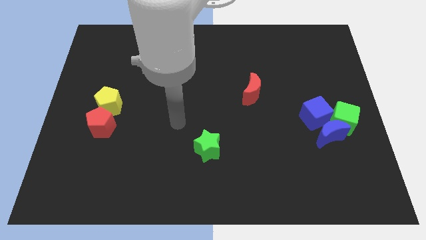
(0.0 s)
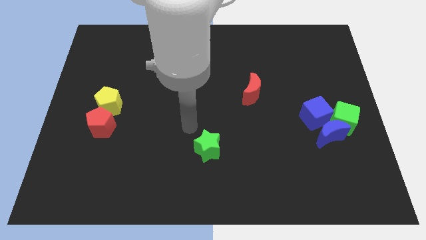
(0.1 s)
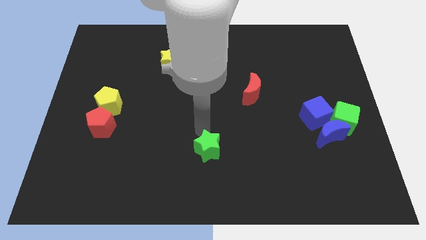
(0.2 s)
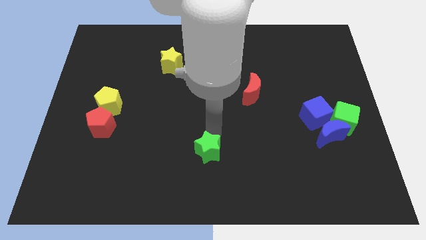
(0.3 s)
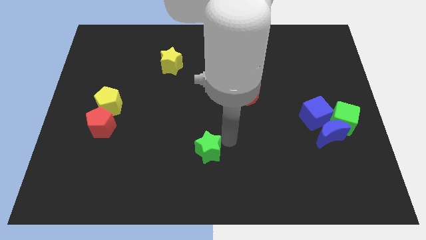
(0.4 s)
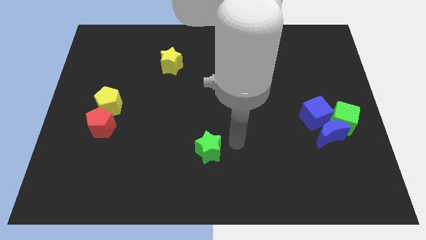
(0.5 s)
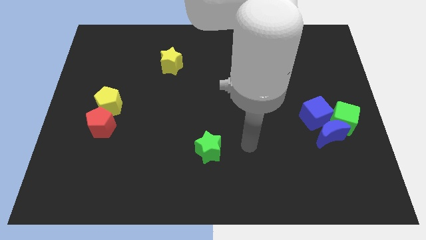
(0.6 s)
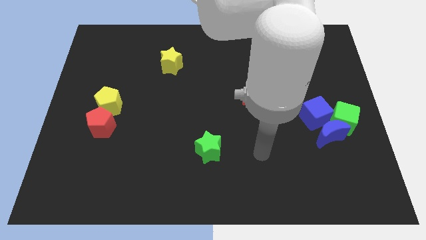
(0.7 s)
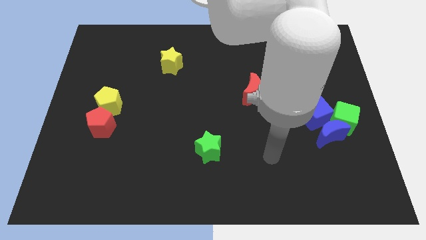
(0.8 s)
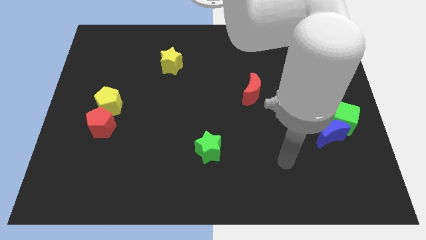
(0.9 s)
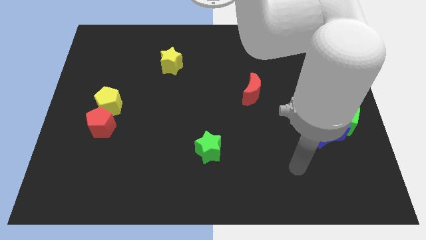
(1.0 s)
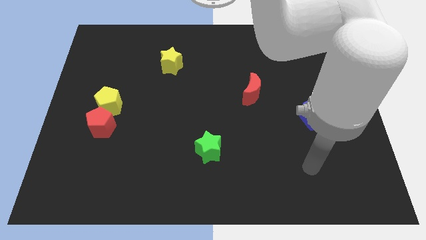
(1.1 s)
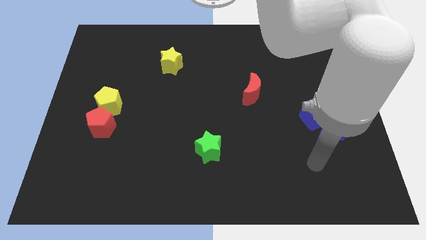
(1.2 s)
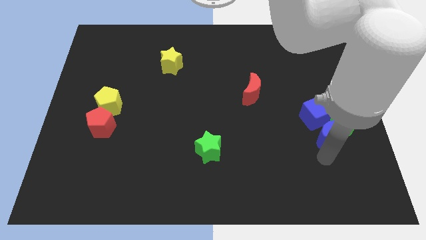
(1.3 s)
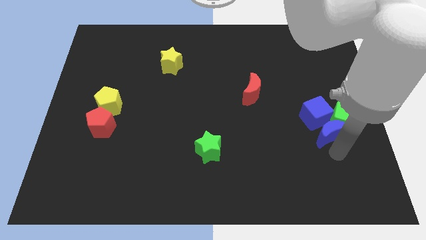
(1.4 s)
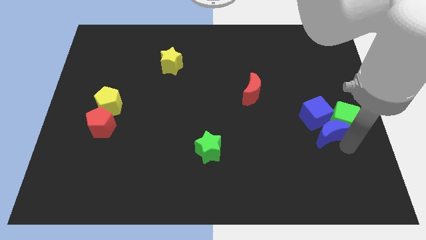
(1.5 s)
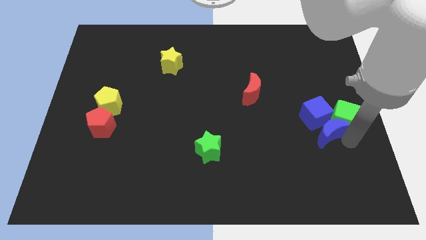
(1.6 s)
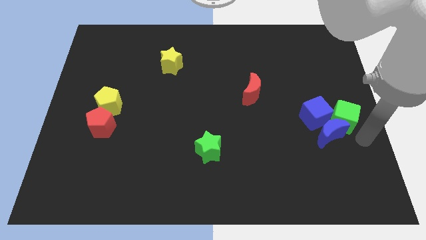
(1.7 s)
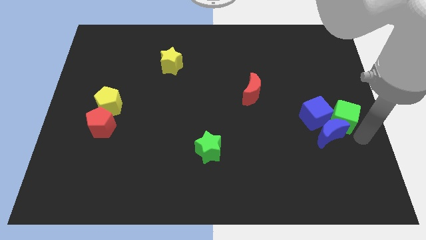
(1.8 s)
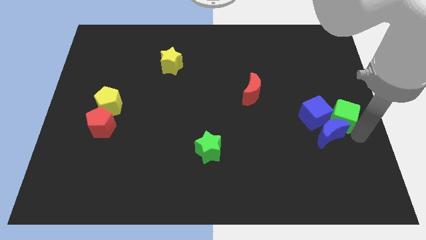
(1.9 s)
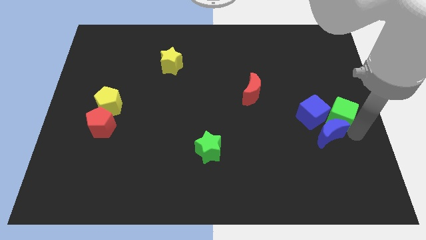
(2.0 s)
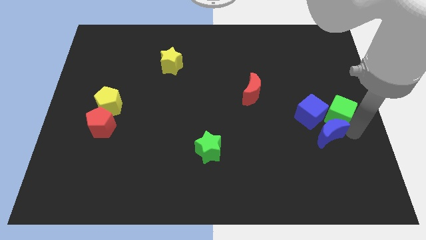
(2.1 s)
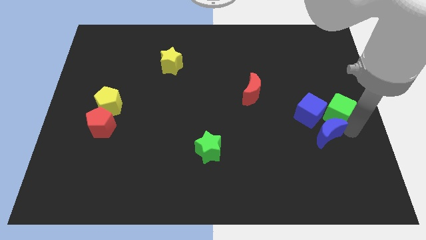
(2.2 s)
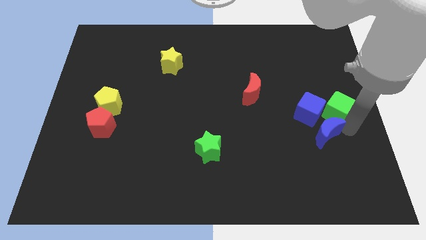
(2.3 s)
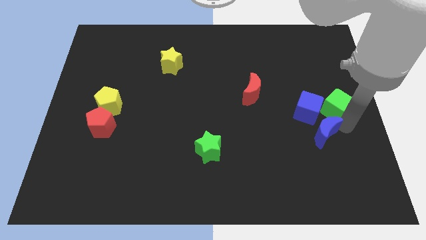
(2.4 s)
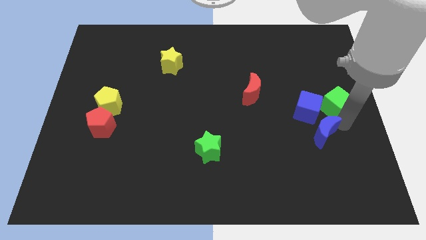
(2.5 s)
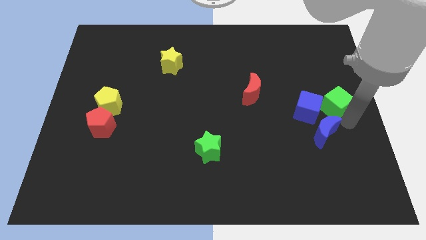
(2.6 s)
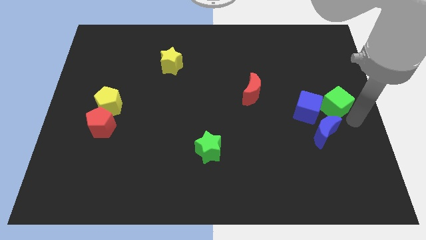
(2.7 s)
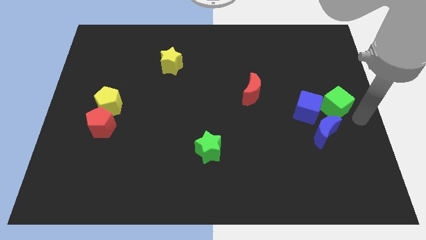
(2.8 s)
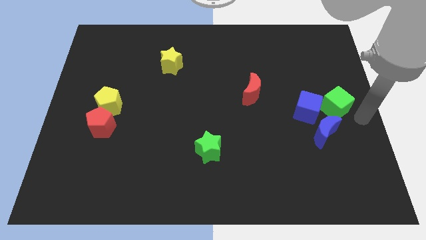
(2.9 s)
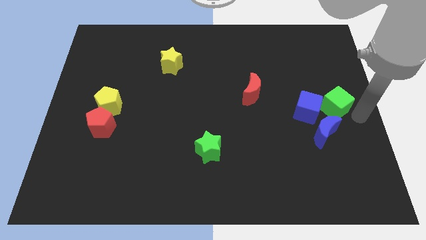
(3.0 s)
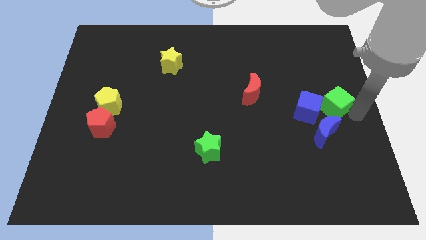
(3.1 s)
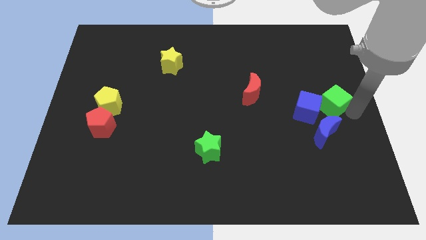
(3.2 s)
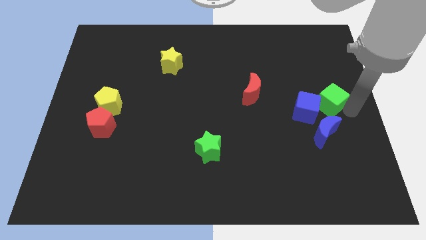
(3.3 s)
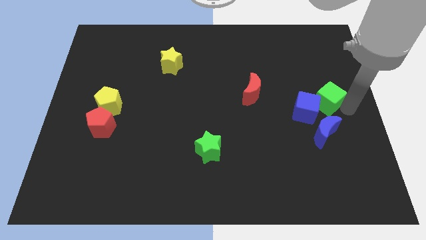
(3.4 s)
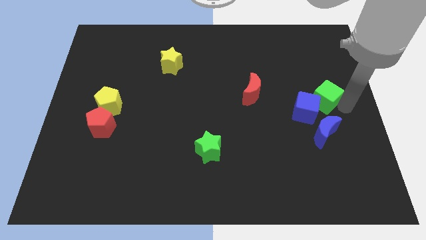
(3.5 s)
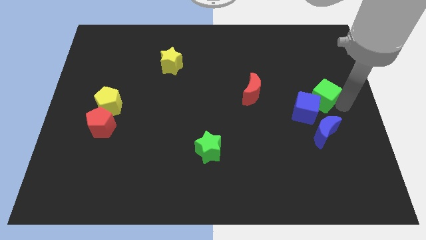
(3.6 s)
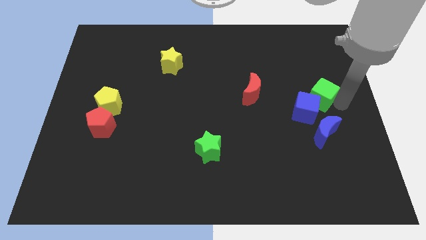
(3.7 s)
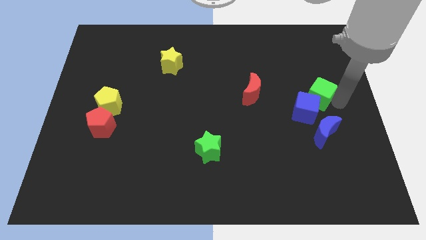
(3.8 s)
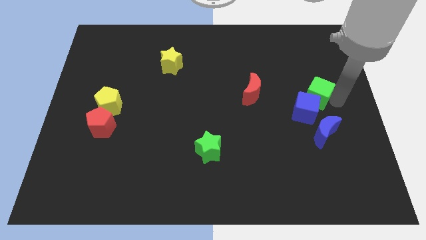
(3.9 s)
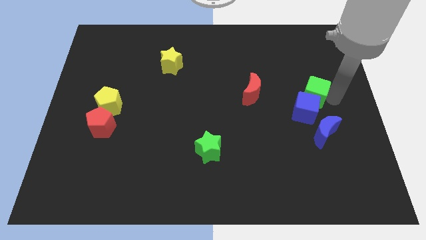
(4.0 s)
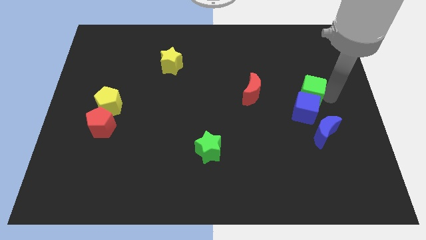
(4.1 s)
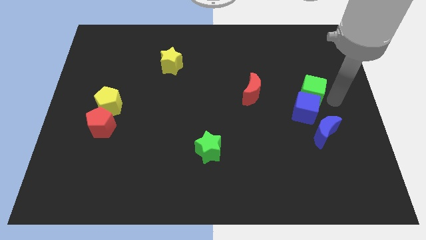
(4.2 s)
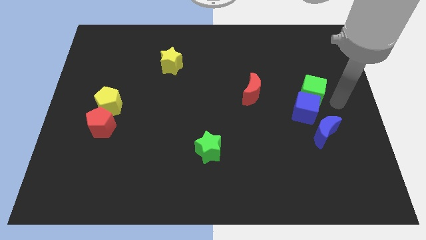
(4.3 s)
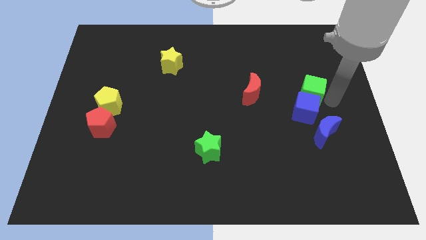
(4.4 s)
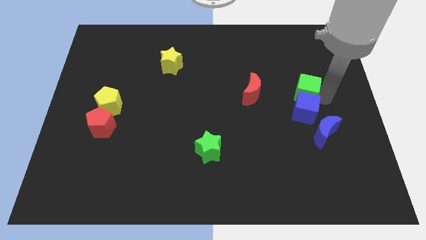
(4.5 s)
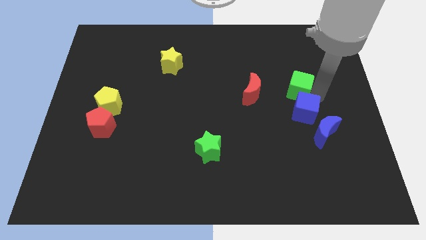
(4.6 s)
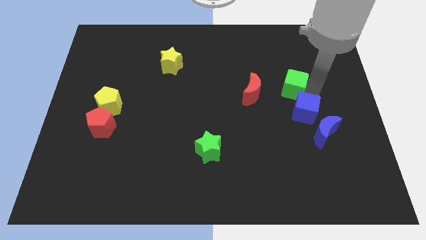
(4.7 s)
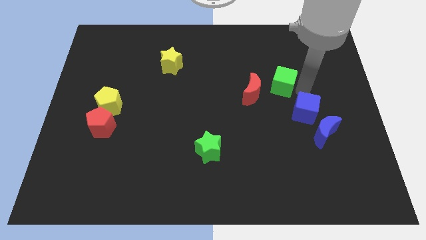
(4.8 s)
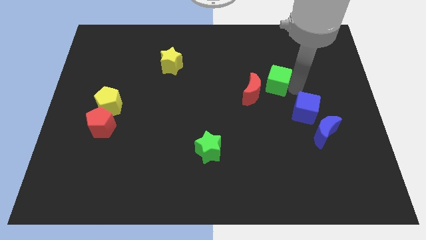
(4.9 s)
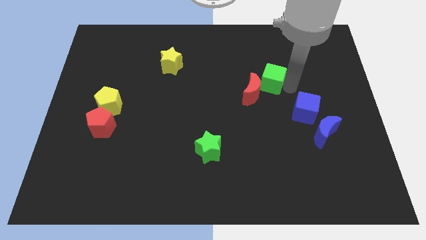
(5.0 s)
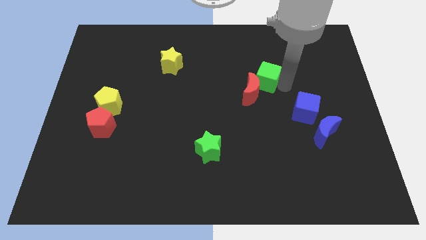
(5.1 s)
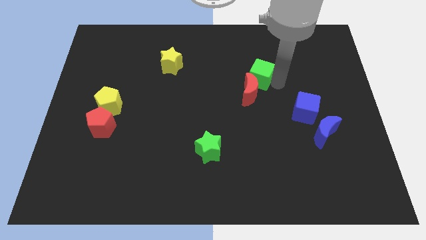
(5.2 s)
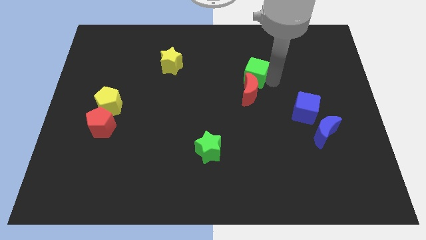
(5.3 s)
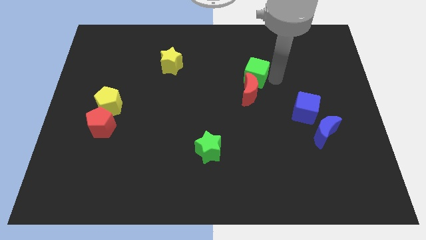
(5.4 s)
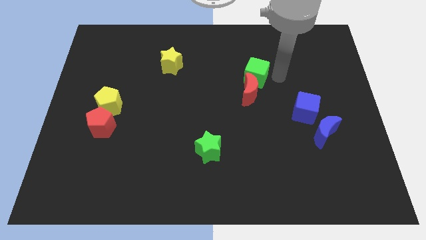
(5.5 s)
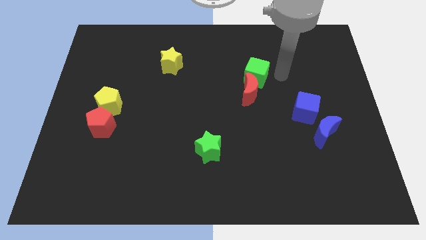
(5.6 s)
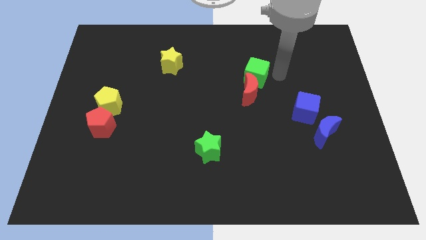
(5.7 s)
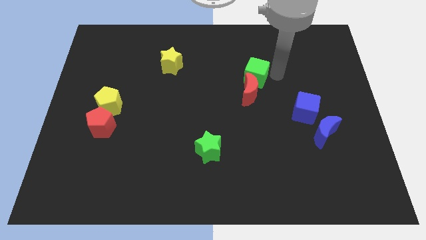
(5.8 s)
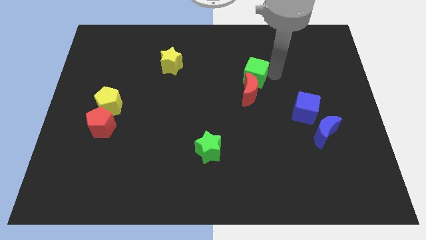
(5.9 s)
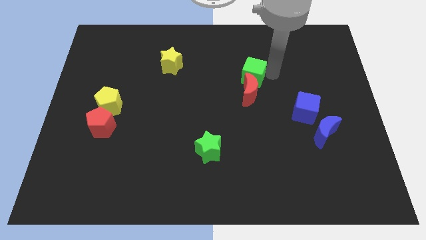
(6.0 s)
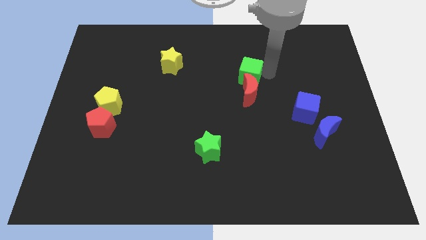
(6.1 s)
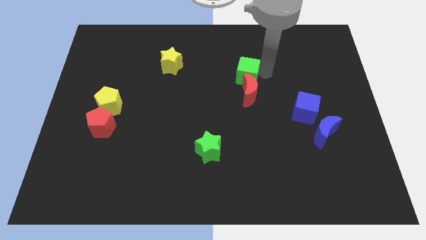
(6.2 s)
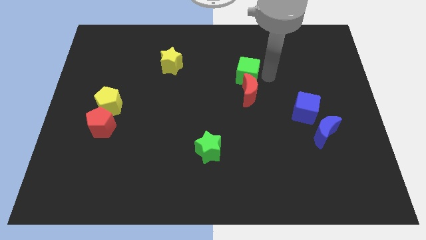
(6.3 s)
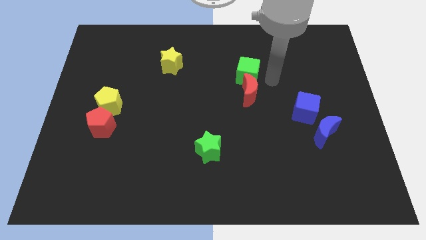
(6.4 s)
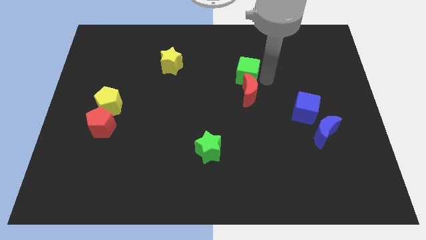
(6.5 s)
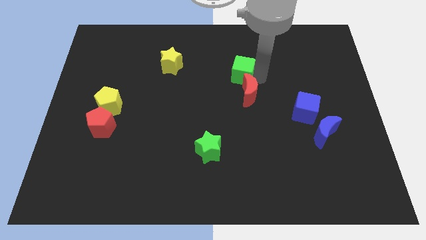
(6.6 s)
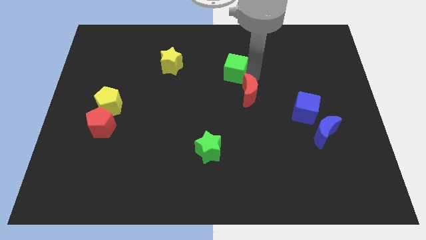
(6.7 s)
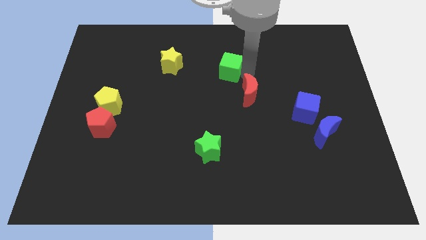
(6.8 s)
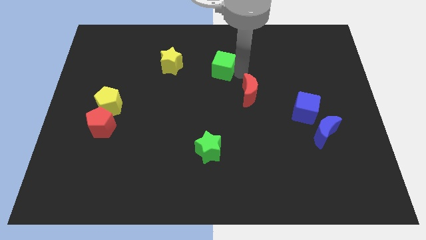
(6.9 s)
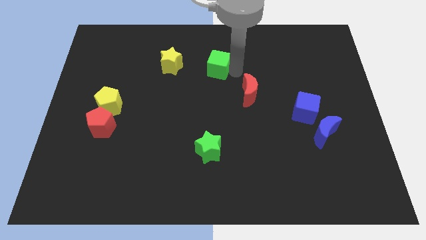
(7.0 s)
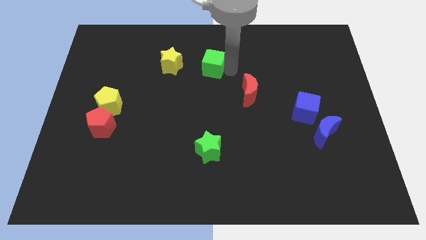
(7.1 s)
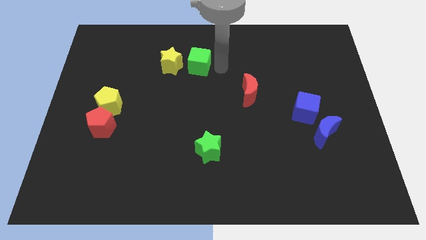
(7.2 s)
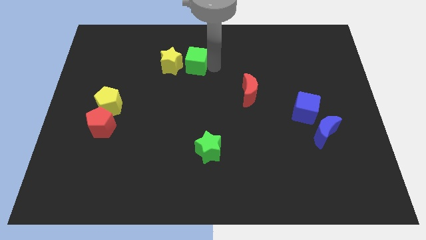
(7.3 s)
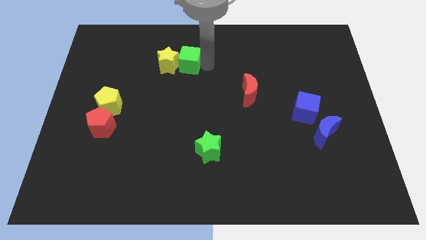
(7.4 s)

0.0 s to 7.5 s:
push the green cube next to the yellow star

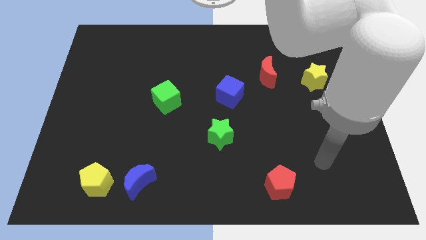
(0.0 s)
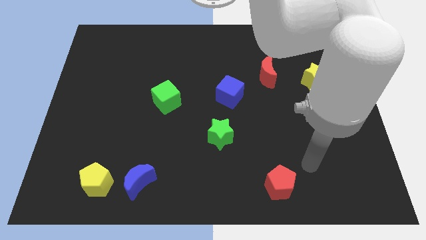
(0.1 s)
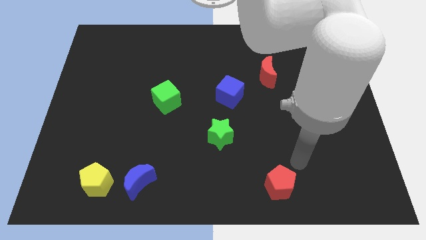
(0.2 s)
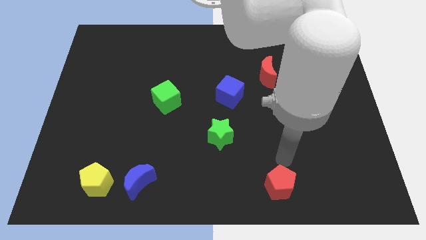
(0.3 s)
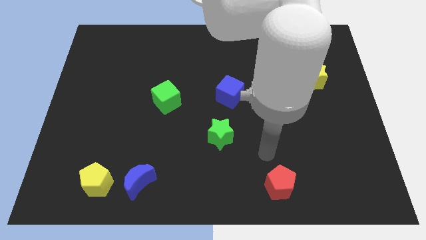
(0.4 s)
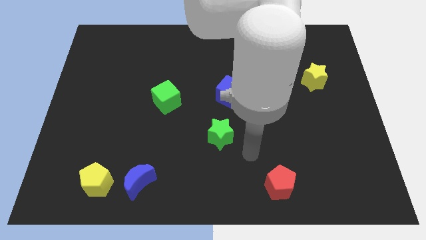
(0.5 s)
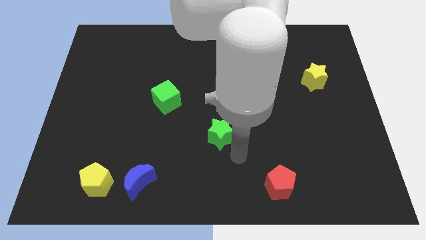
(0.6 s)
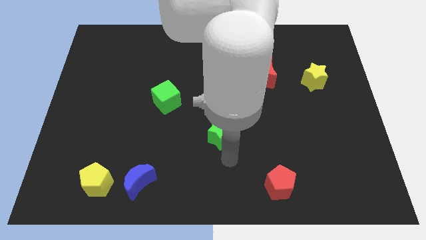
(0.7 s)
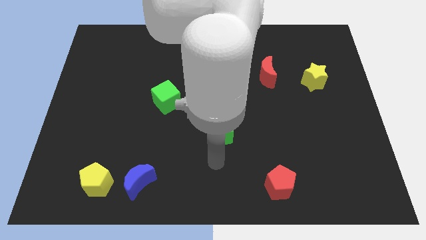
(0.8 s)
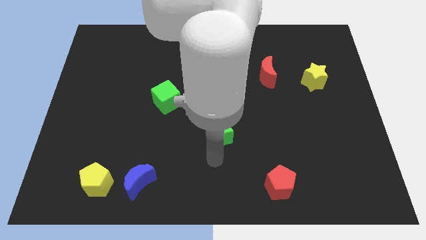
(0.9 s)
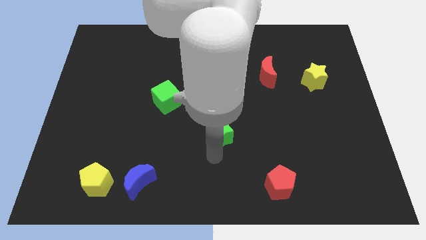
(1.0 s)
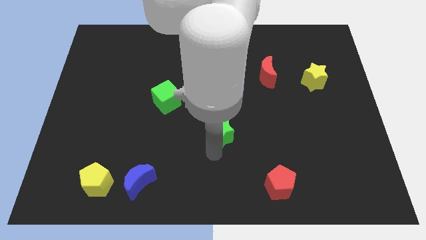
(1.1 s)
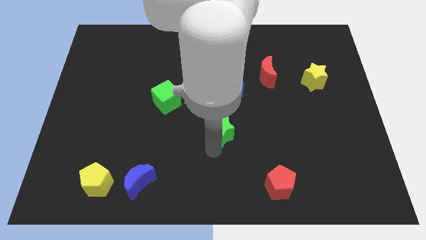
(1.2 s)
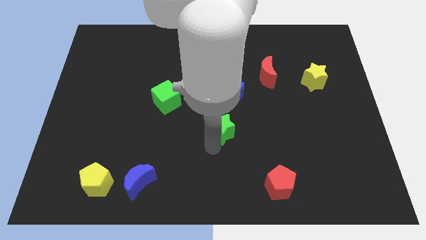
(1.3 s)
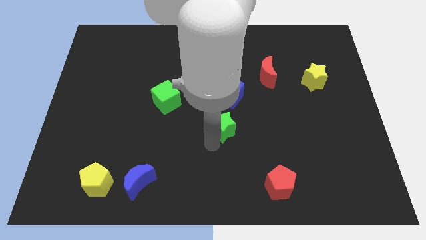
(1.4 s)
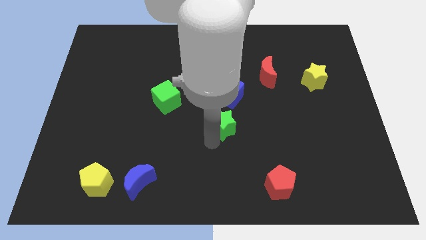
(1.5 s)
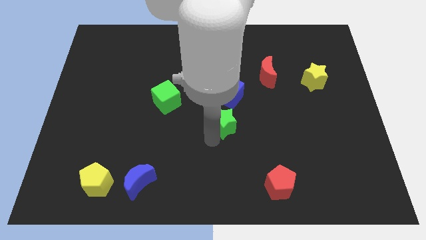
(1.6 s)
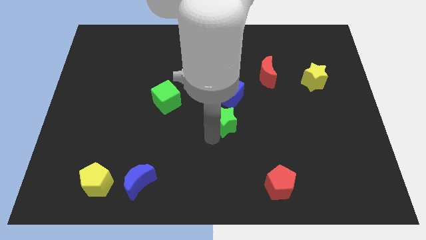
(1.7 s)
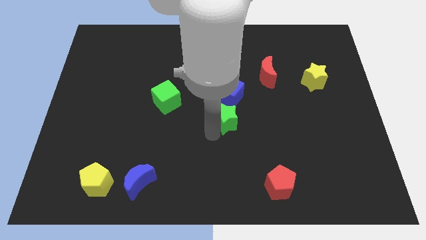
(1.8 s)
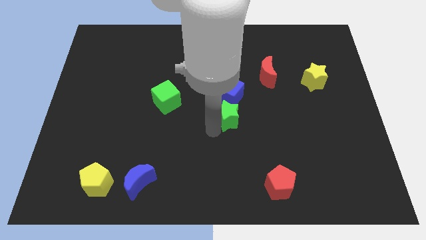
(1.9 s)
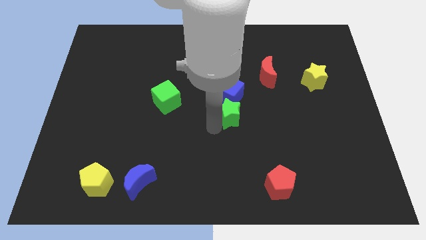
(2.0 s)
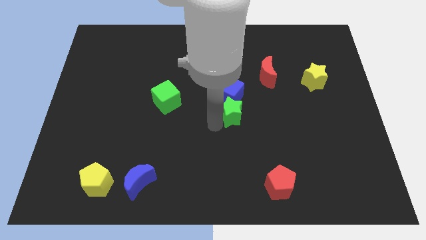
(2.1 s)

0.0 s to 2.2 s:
slide the green star close to the blue cube
